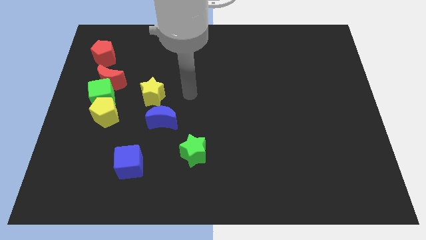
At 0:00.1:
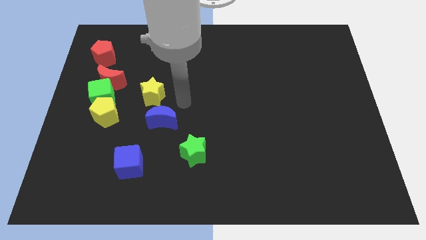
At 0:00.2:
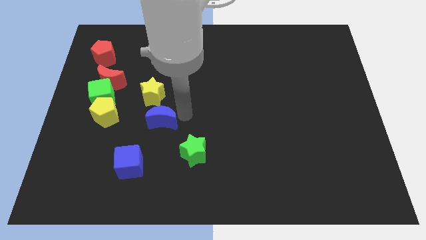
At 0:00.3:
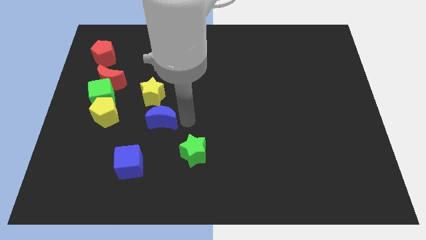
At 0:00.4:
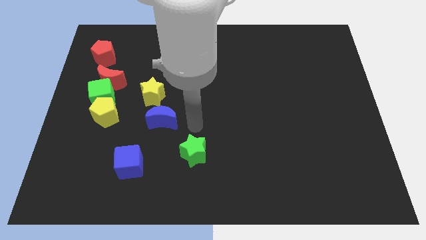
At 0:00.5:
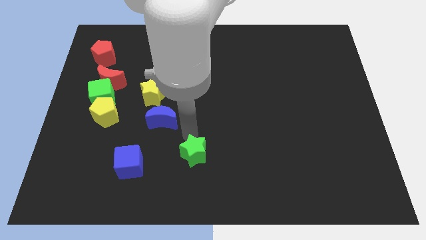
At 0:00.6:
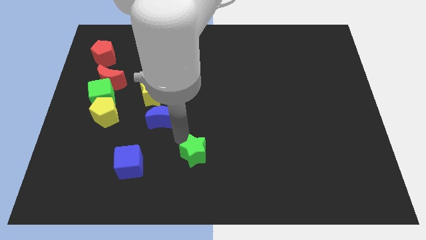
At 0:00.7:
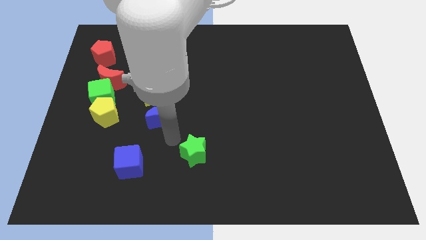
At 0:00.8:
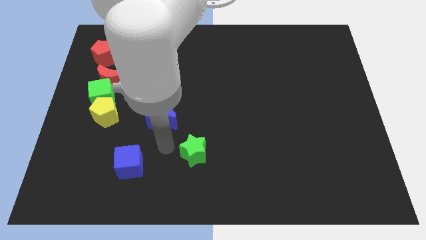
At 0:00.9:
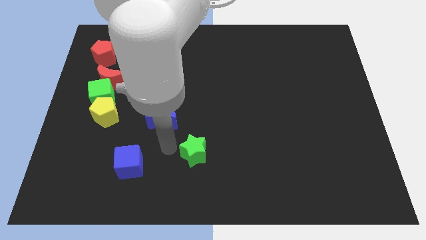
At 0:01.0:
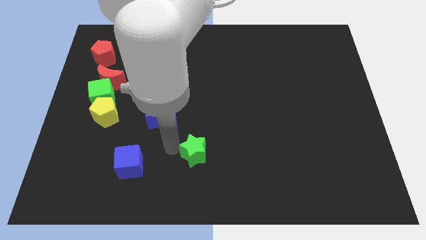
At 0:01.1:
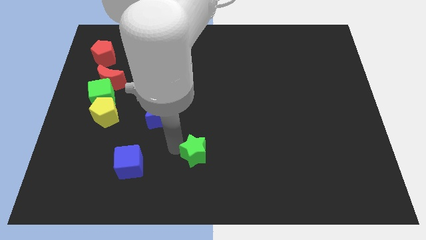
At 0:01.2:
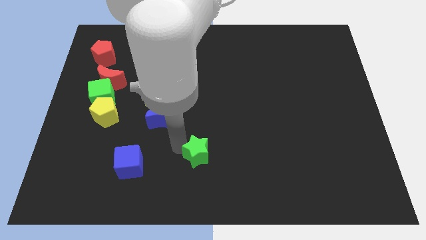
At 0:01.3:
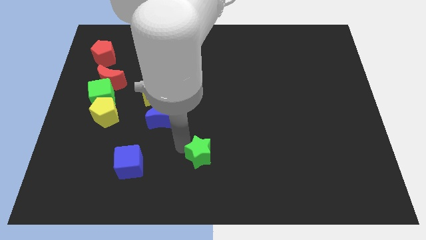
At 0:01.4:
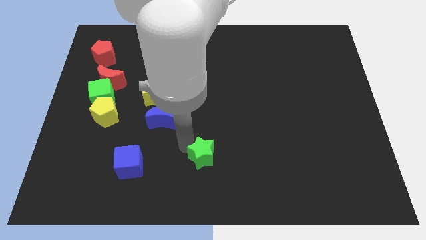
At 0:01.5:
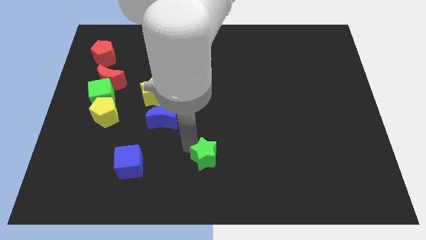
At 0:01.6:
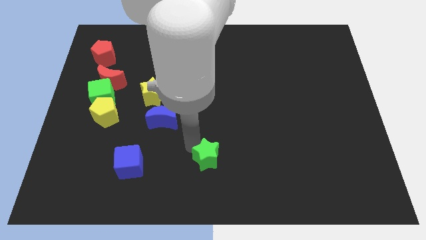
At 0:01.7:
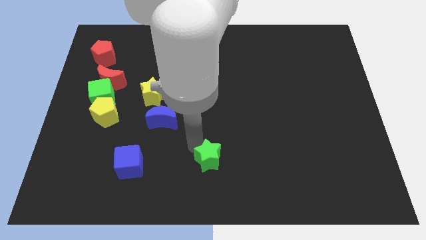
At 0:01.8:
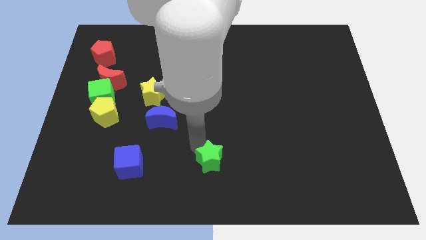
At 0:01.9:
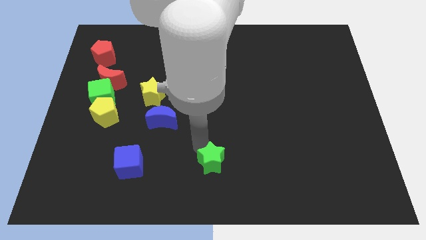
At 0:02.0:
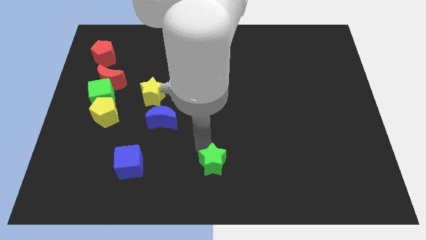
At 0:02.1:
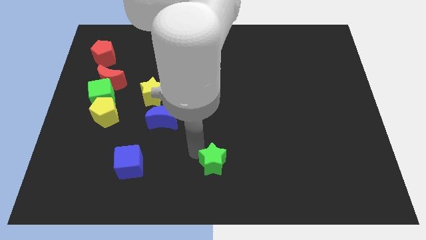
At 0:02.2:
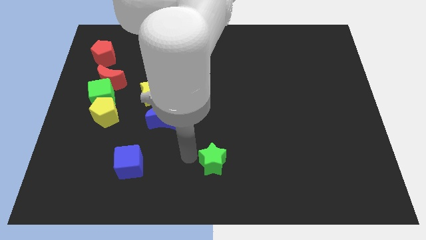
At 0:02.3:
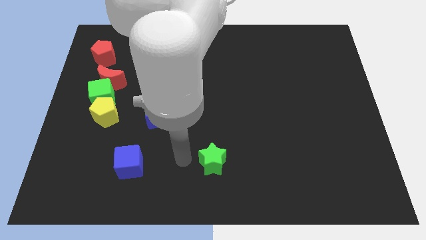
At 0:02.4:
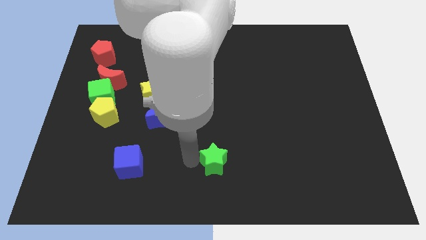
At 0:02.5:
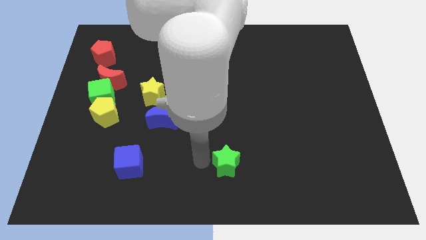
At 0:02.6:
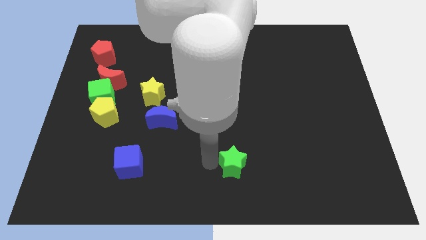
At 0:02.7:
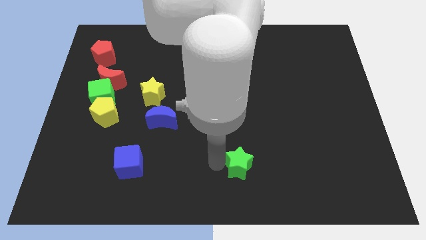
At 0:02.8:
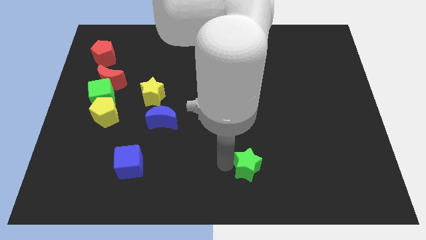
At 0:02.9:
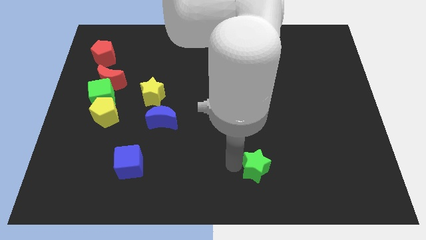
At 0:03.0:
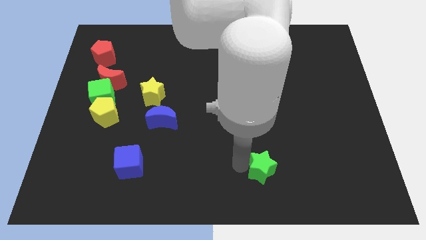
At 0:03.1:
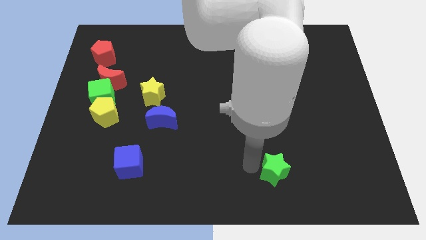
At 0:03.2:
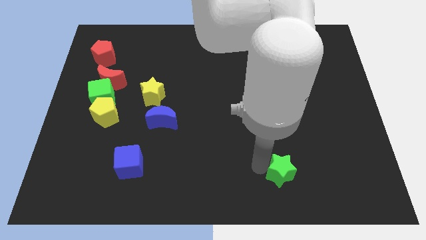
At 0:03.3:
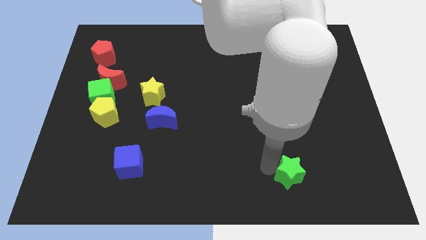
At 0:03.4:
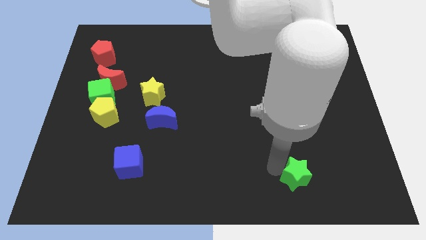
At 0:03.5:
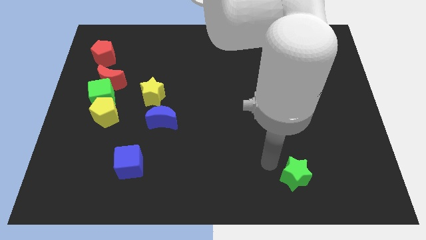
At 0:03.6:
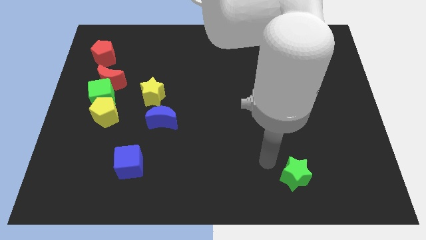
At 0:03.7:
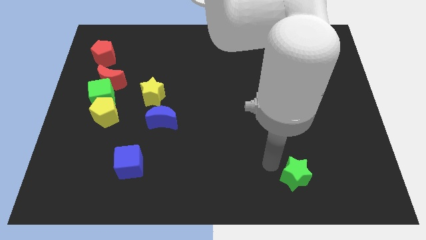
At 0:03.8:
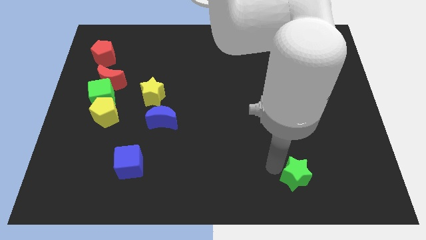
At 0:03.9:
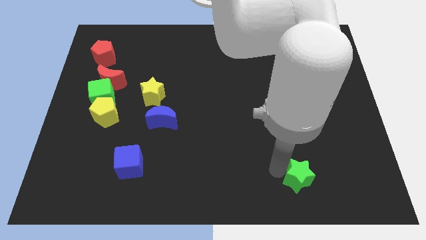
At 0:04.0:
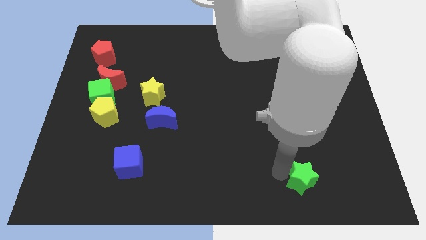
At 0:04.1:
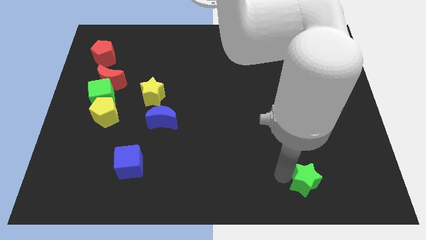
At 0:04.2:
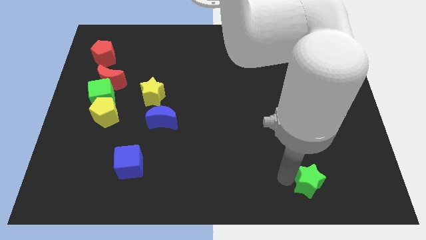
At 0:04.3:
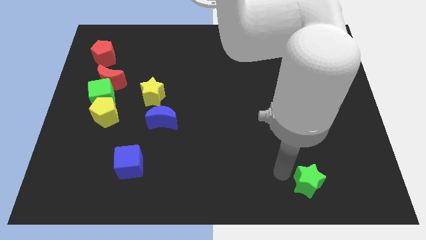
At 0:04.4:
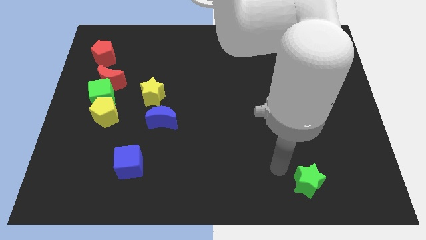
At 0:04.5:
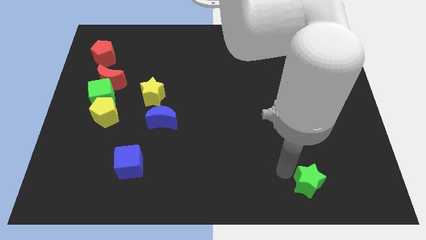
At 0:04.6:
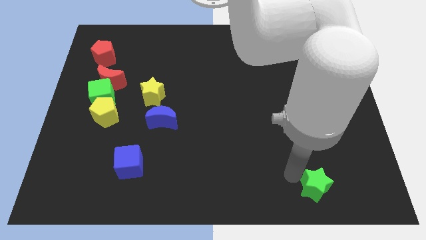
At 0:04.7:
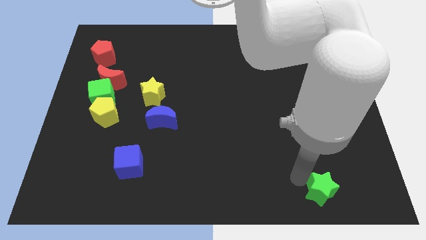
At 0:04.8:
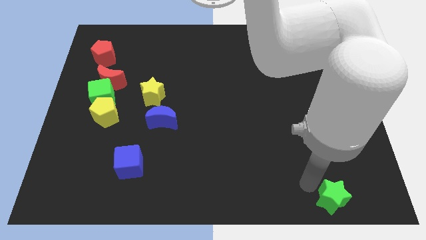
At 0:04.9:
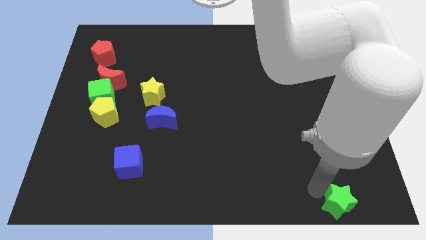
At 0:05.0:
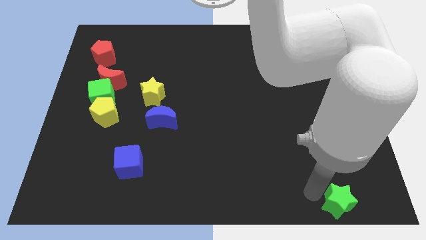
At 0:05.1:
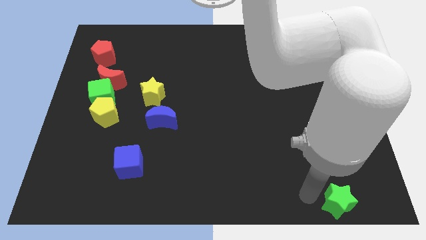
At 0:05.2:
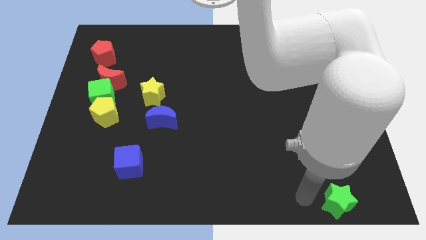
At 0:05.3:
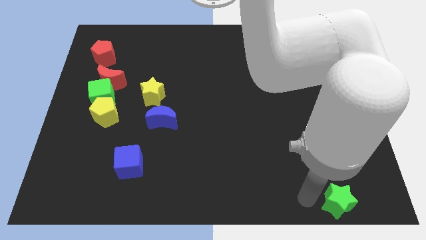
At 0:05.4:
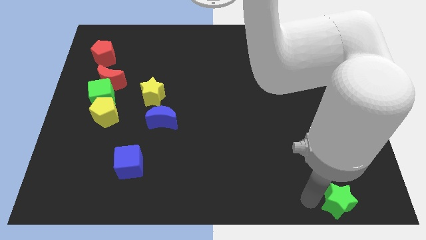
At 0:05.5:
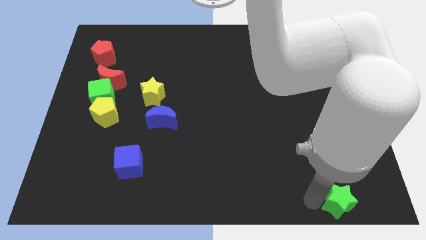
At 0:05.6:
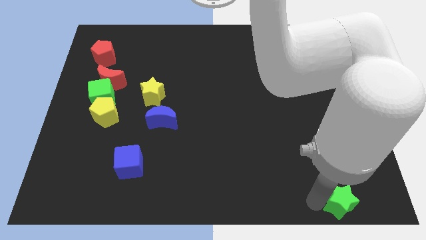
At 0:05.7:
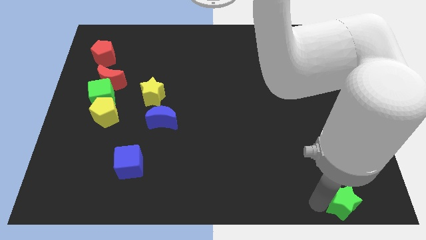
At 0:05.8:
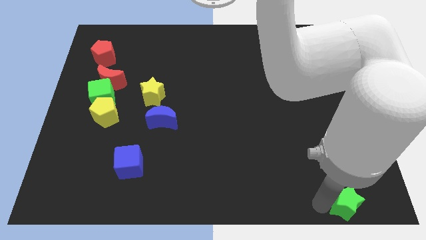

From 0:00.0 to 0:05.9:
slide the green star to the lower right corner

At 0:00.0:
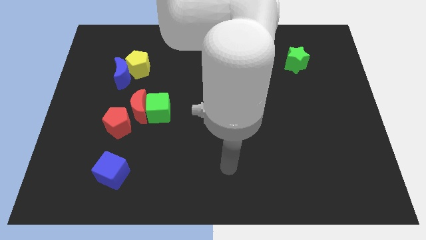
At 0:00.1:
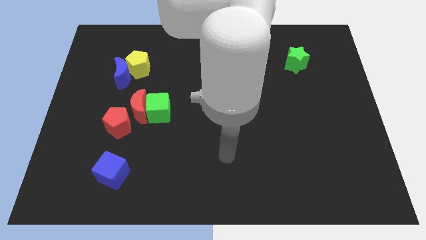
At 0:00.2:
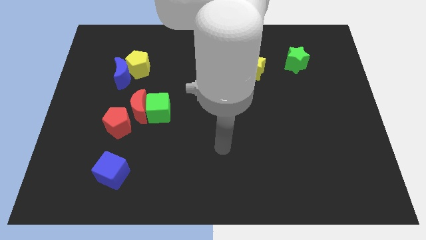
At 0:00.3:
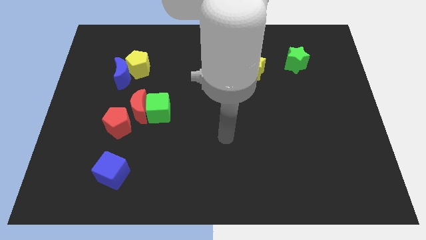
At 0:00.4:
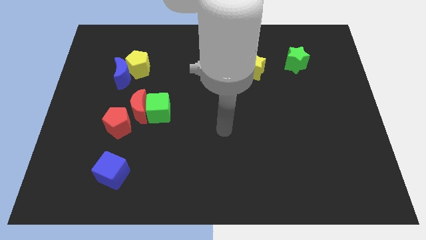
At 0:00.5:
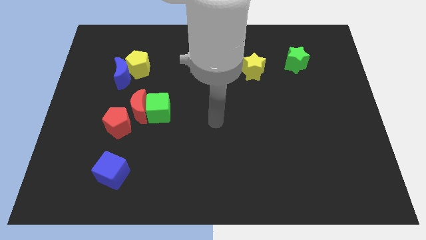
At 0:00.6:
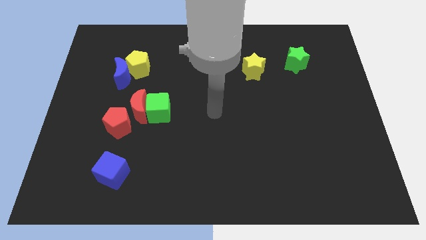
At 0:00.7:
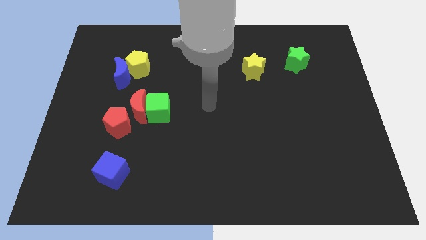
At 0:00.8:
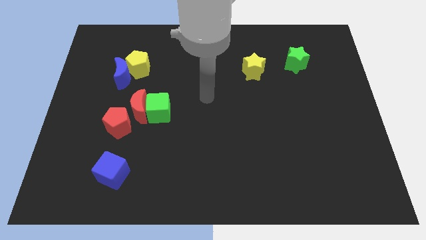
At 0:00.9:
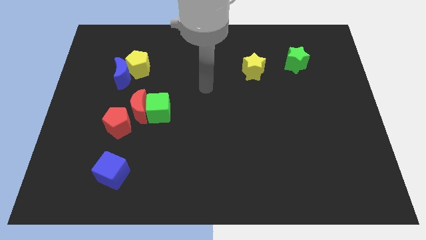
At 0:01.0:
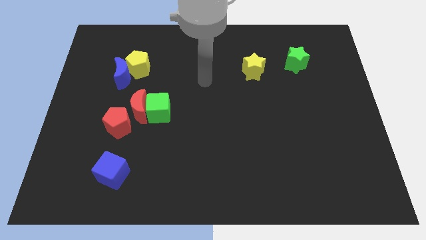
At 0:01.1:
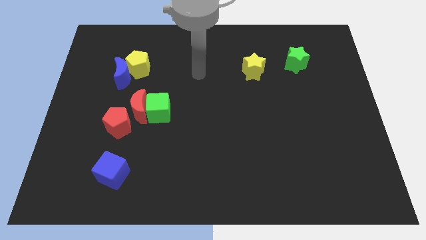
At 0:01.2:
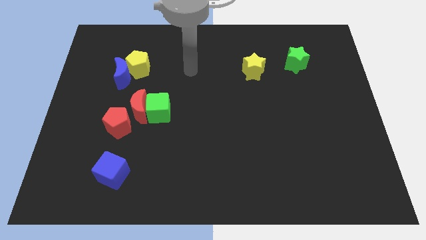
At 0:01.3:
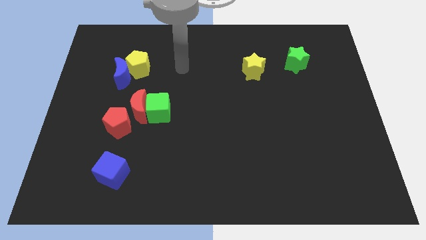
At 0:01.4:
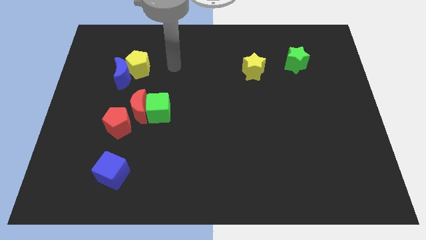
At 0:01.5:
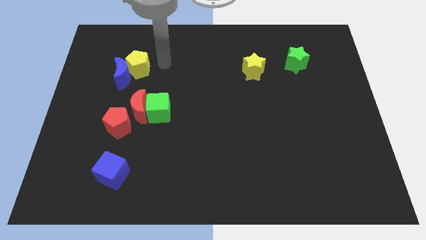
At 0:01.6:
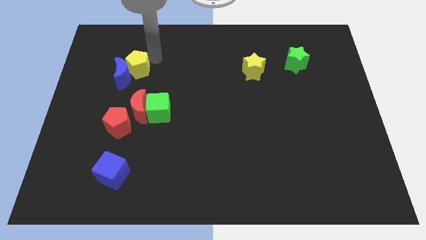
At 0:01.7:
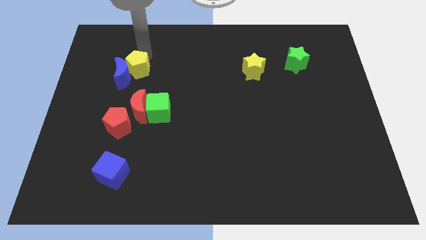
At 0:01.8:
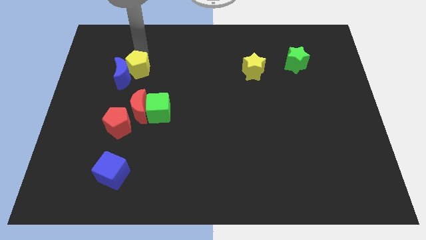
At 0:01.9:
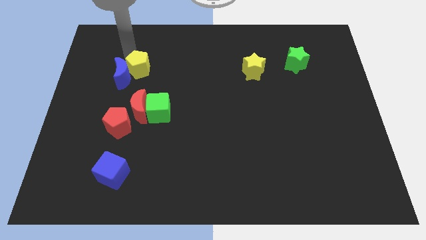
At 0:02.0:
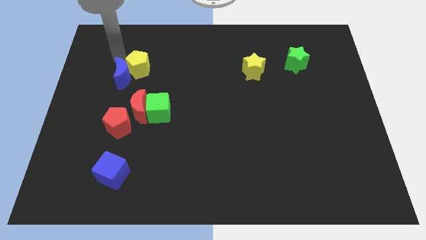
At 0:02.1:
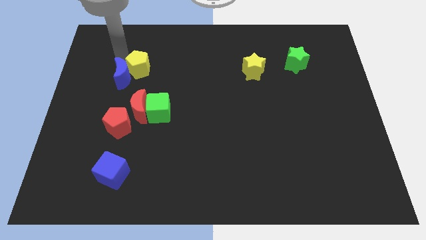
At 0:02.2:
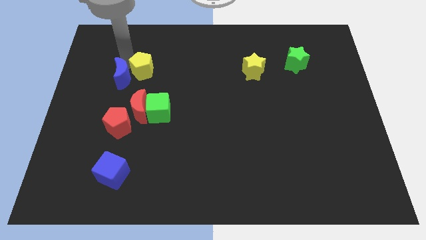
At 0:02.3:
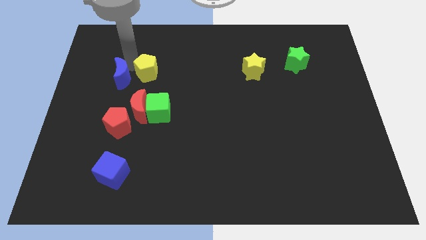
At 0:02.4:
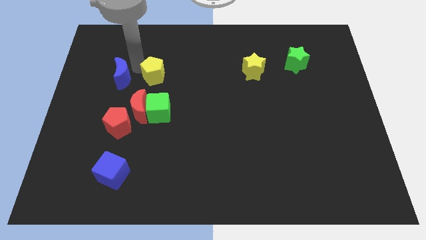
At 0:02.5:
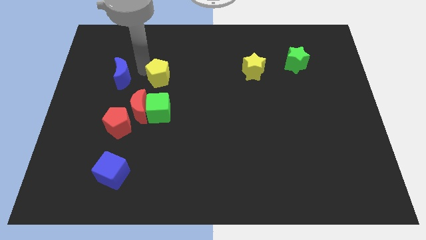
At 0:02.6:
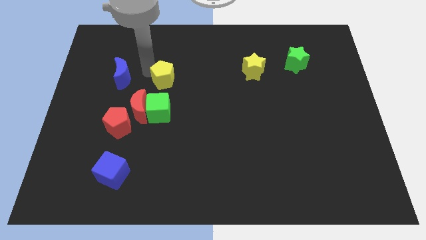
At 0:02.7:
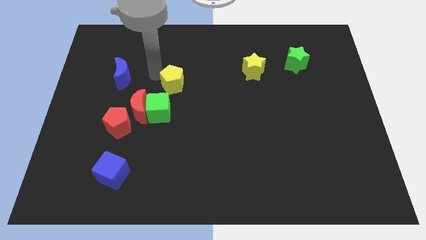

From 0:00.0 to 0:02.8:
move the yellow pentagon to the middle
